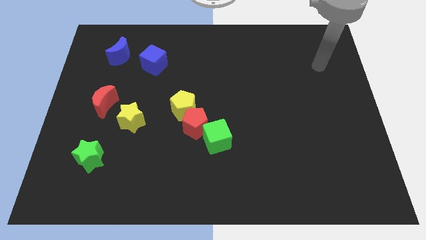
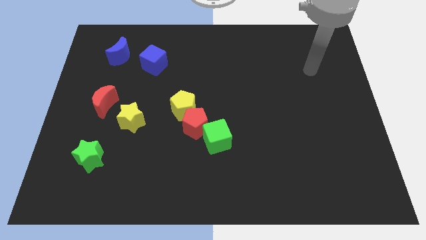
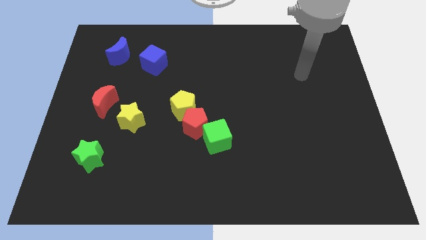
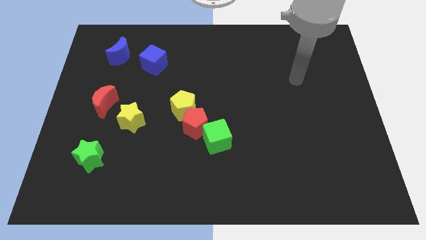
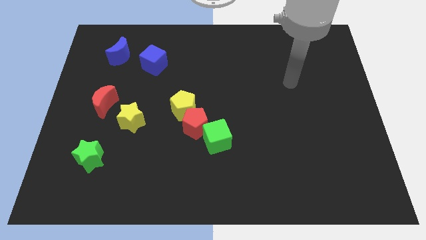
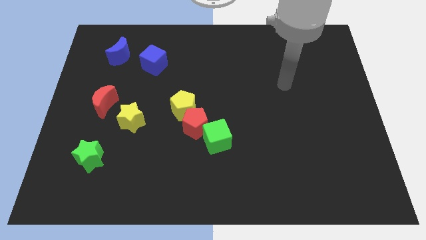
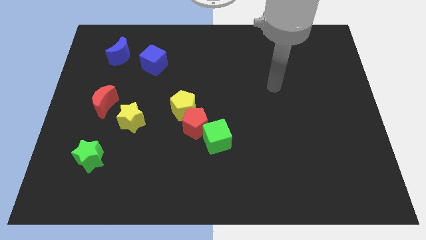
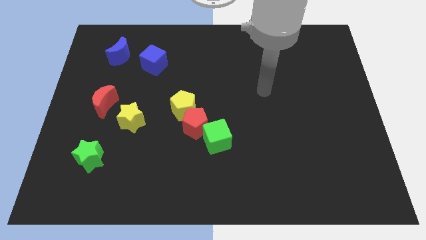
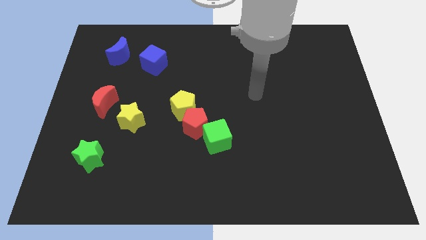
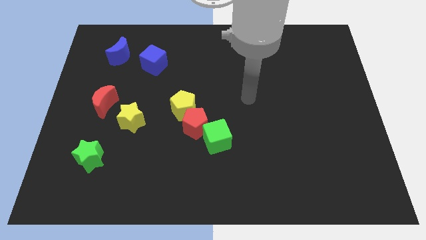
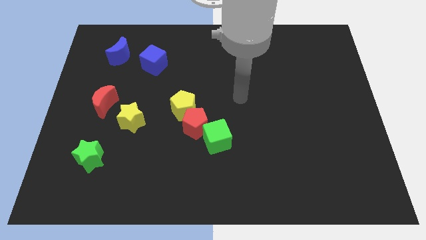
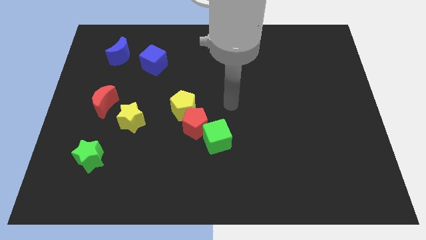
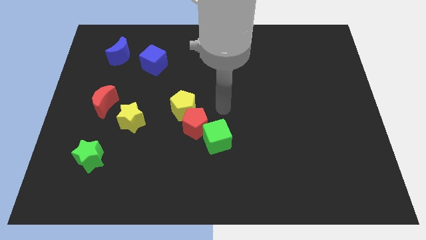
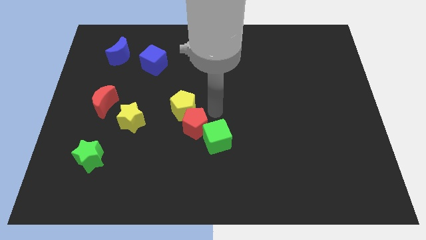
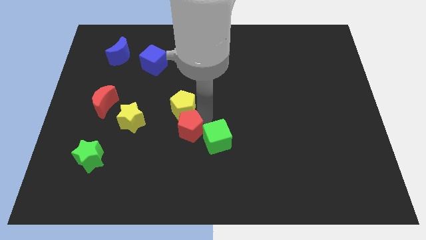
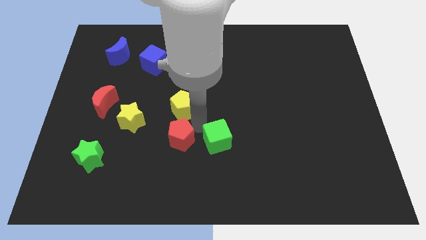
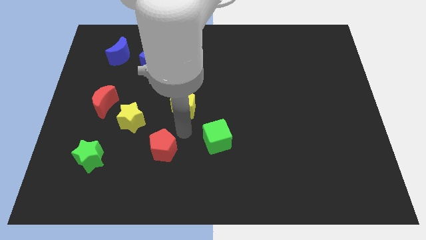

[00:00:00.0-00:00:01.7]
pull the yellow pentagon apart from the red pentagon

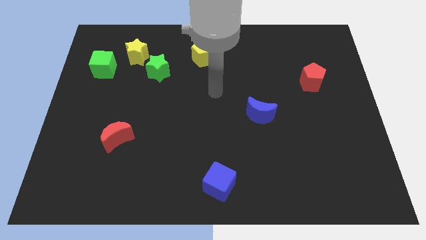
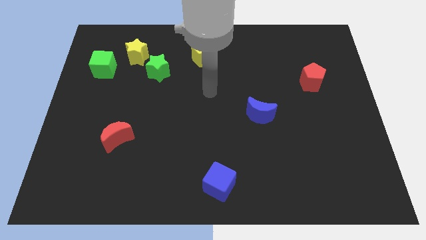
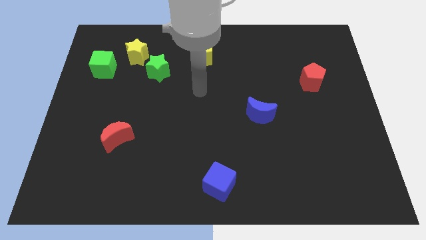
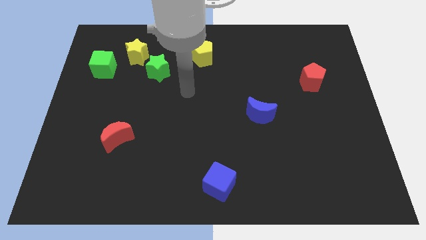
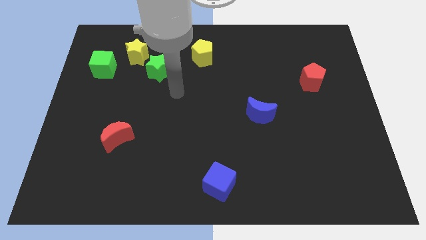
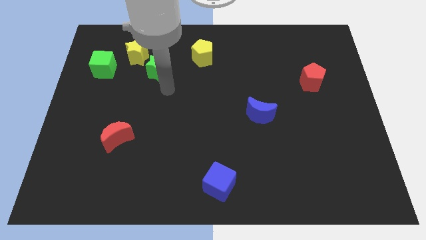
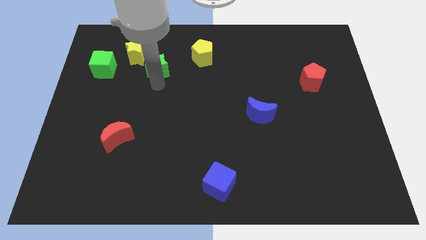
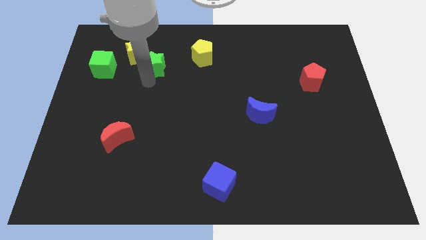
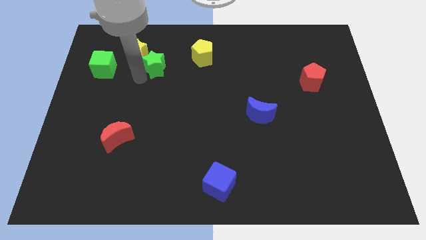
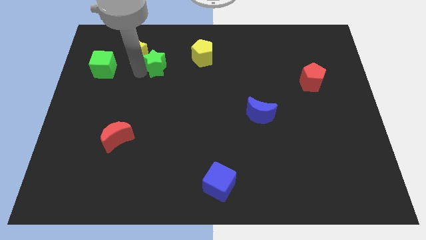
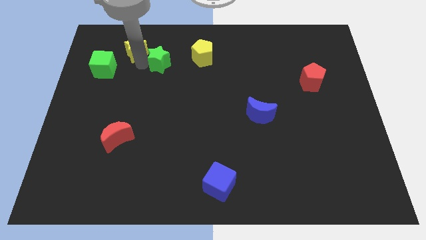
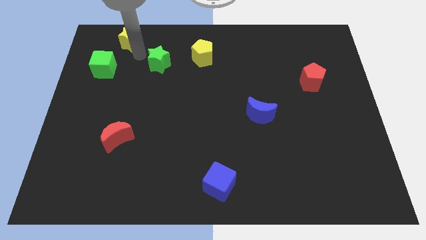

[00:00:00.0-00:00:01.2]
move the green star away from the yellow star

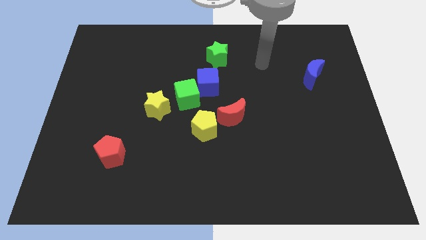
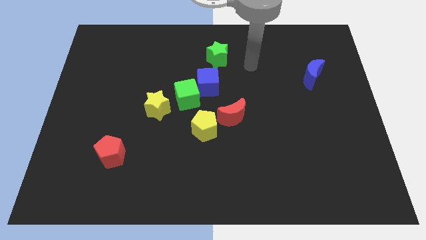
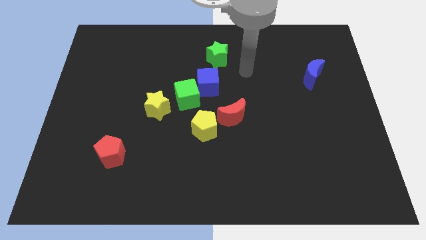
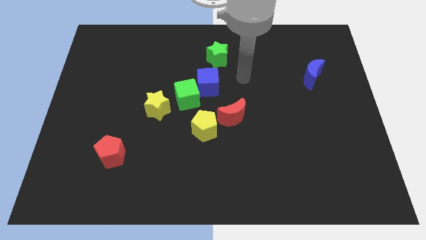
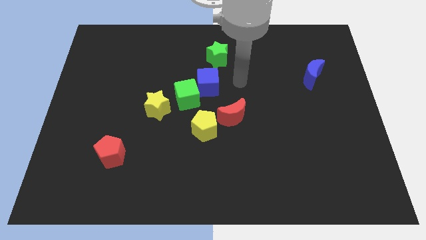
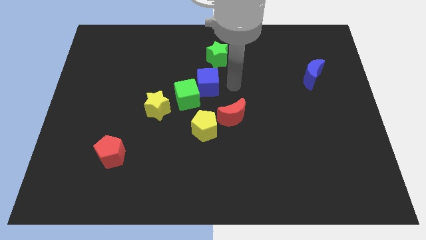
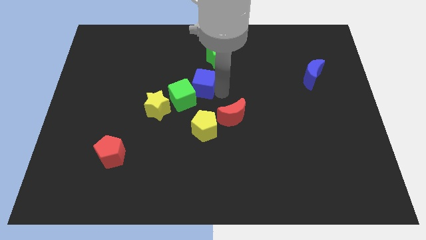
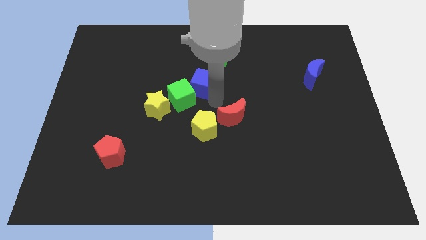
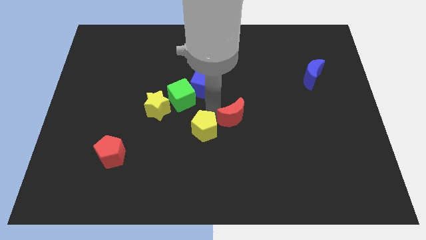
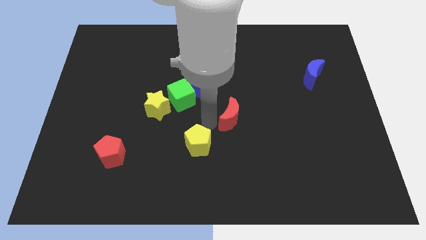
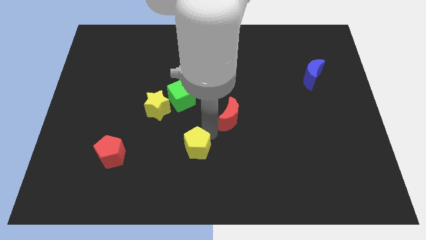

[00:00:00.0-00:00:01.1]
move the red moon away from the yellow pentagon

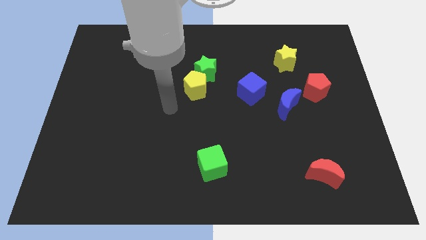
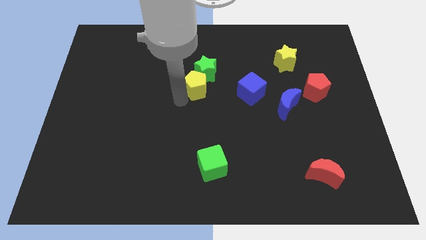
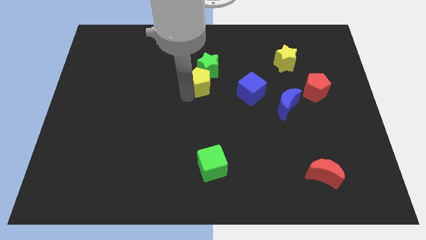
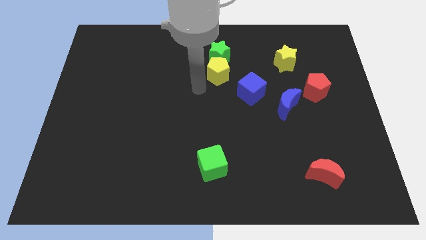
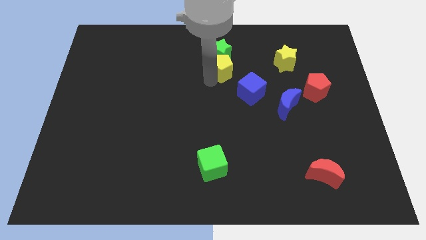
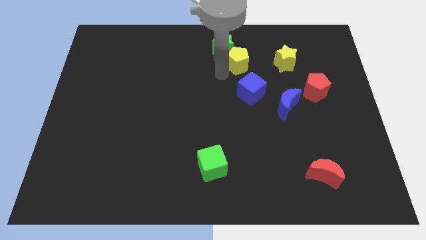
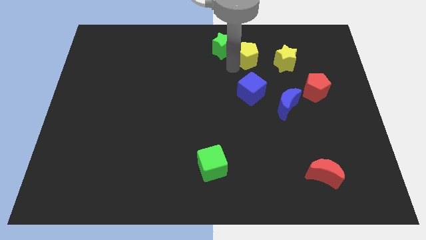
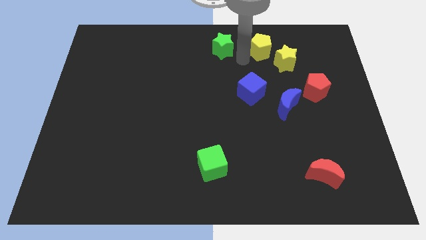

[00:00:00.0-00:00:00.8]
pull the green star apart from the yellow pentagon

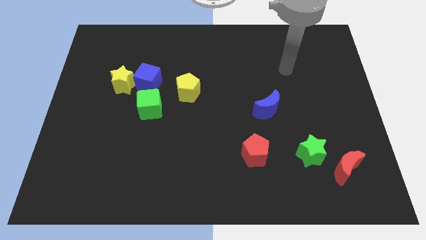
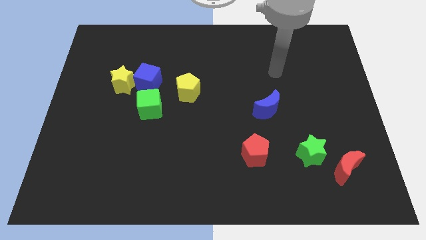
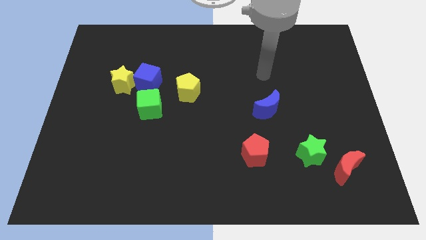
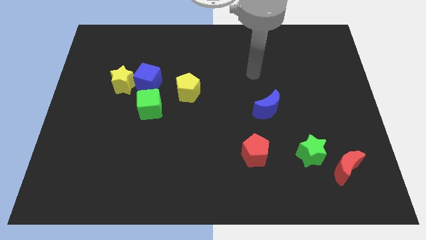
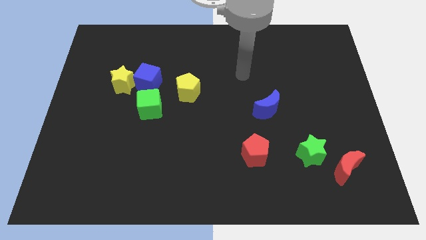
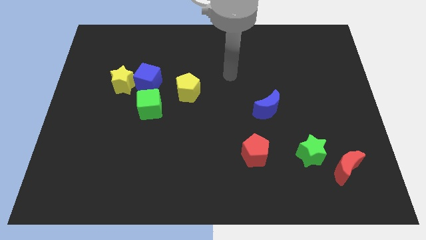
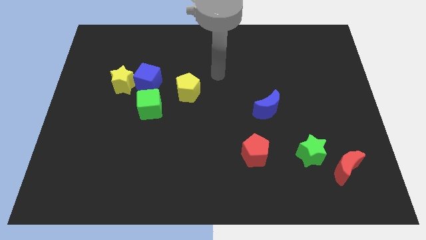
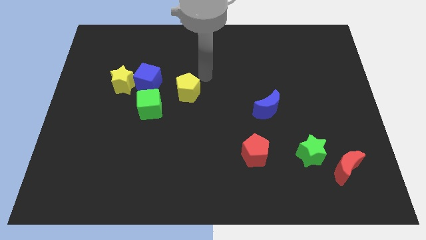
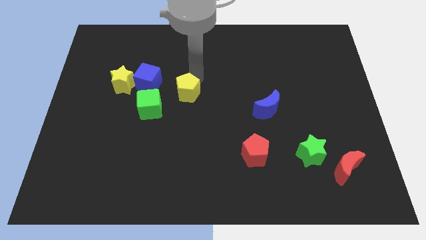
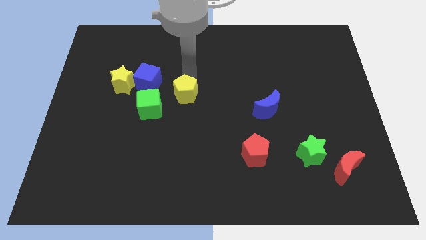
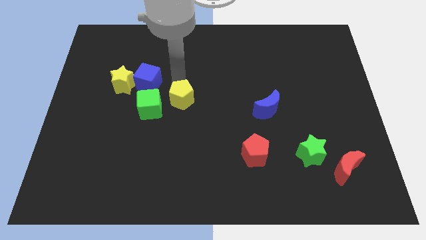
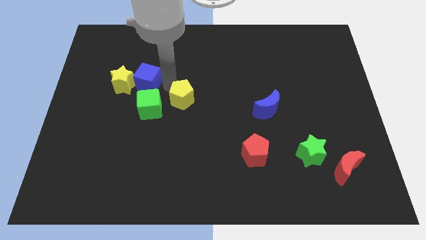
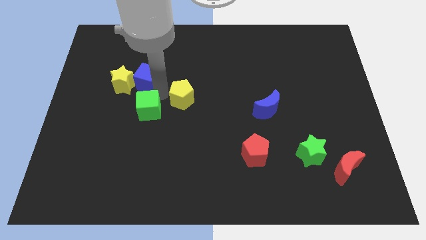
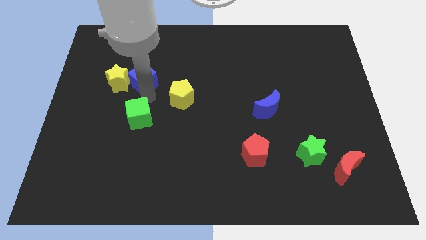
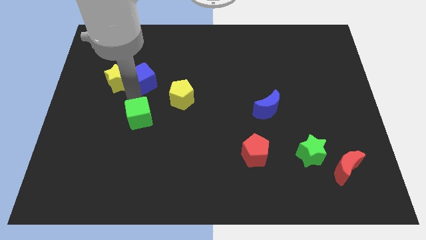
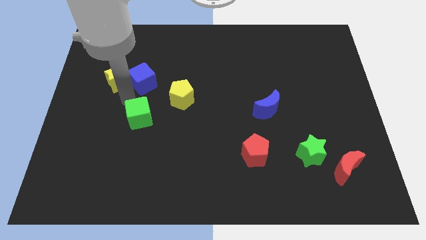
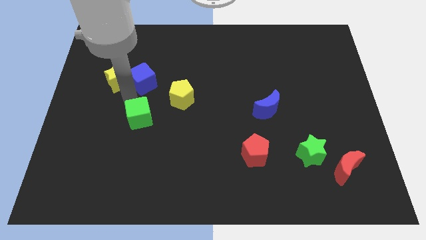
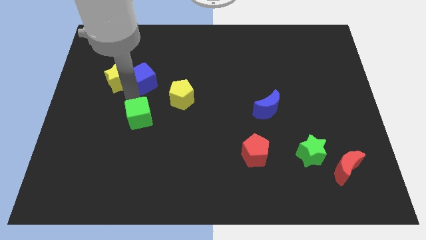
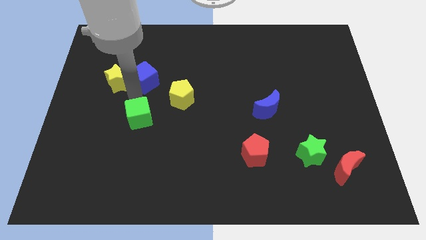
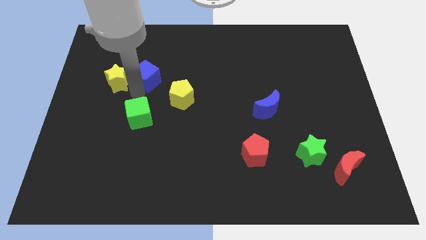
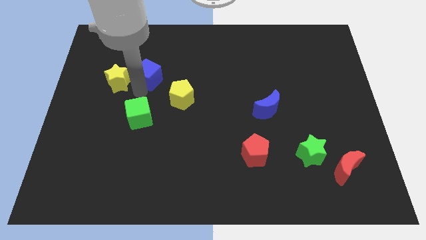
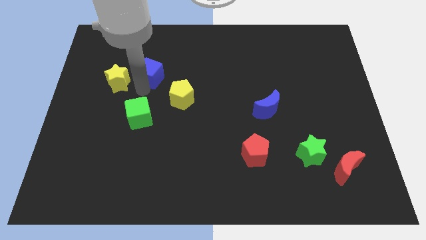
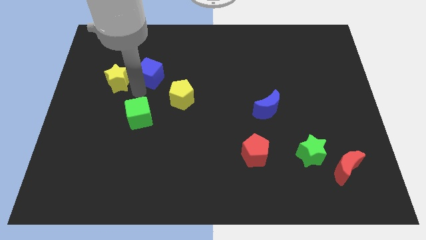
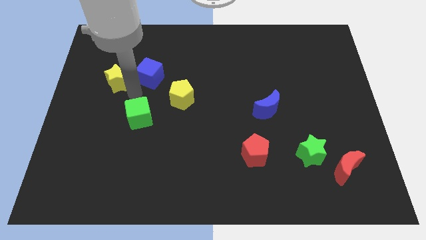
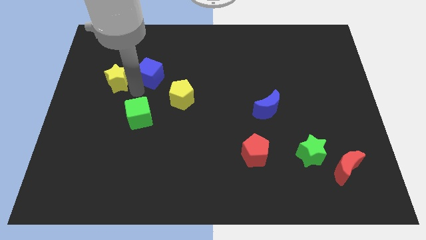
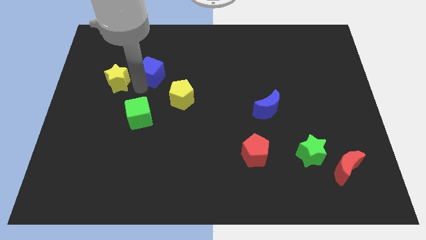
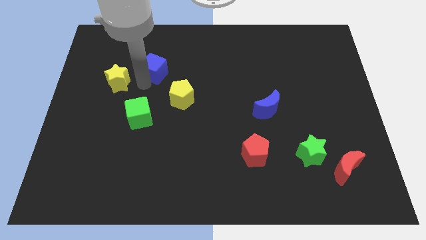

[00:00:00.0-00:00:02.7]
separate the blue cube from the yellow star and green cube

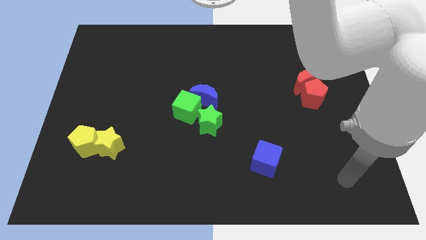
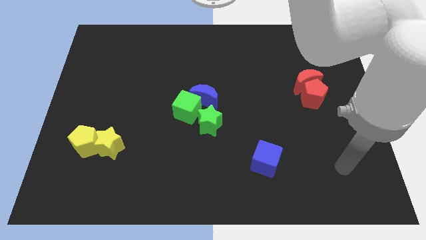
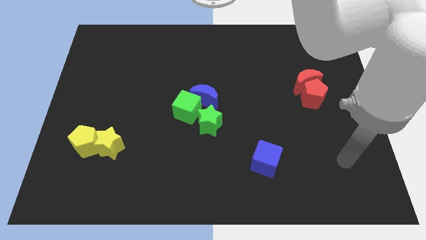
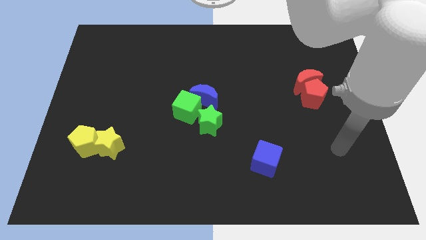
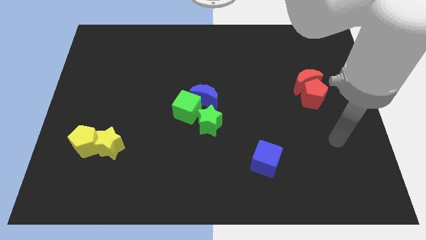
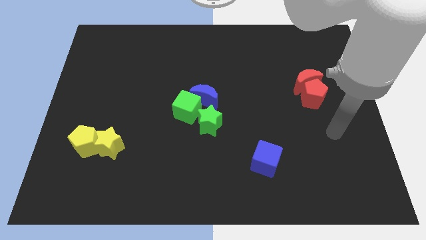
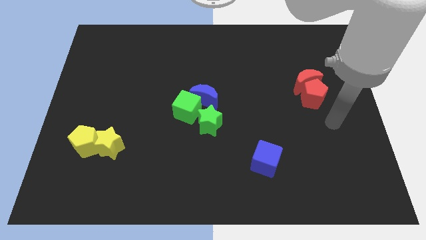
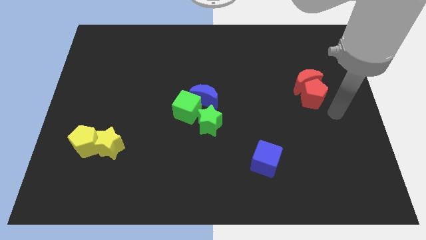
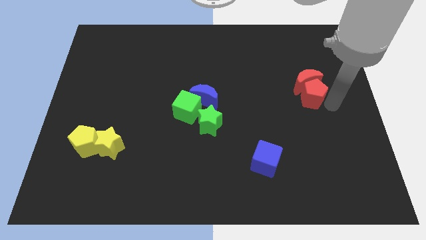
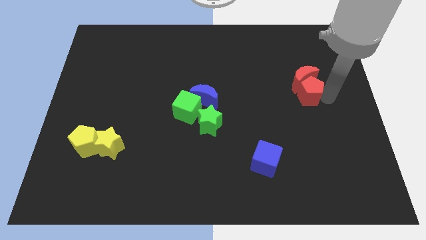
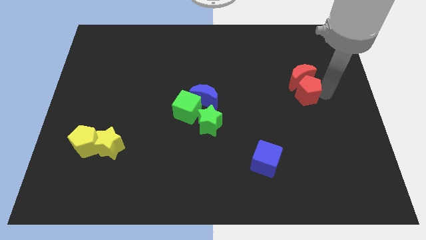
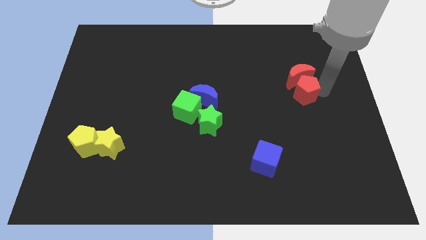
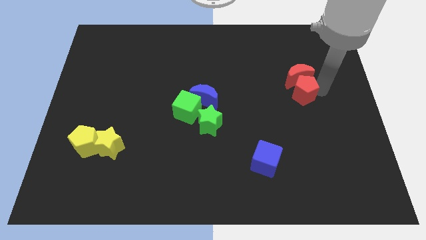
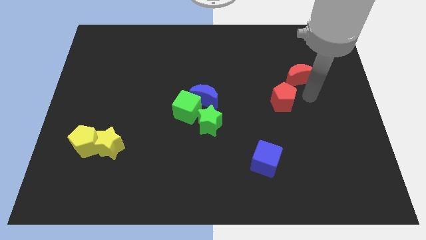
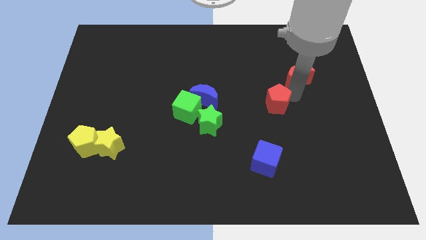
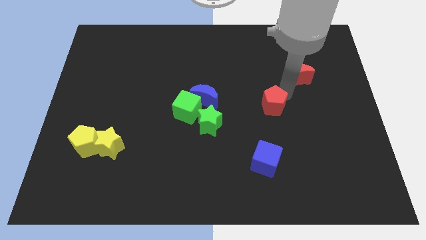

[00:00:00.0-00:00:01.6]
separate the red moon from the red pentagon

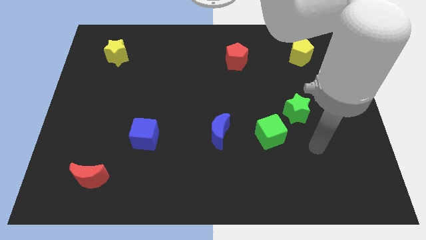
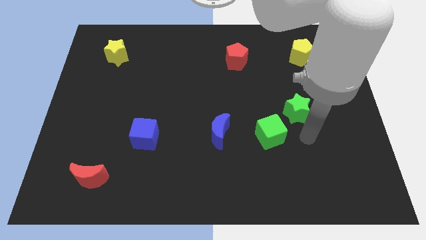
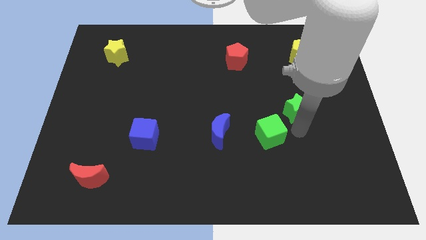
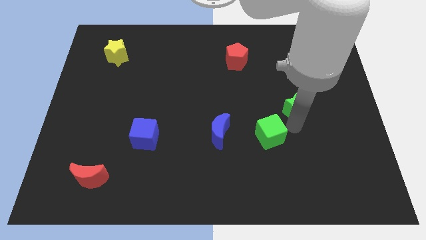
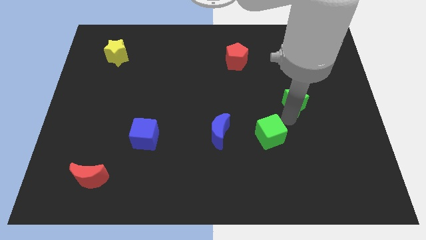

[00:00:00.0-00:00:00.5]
pull the green cube apart from the green star
